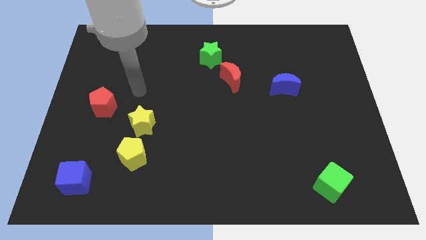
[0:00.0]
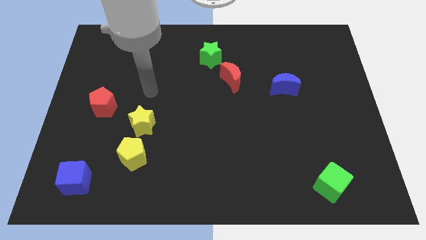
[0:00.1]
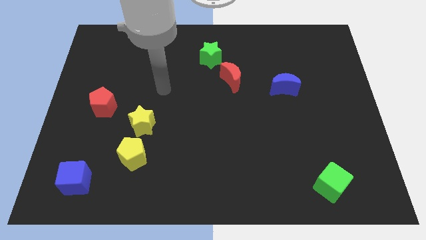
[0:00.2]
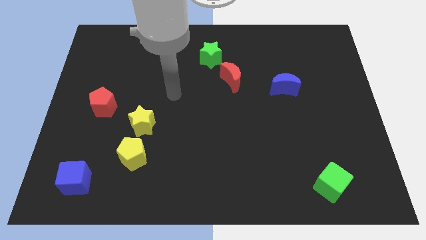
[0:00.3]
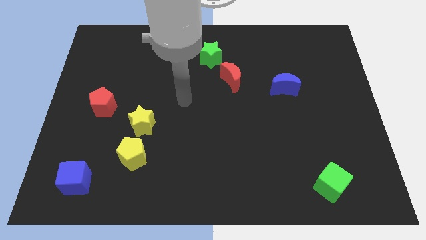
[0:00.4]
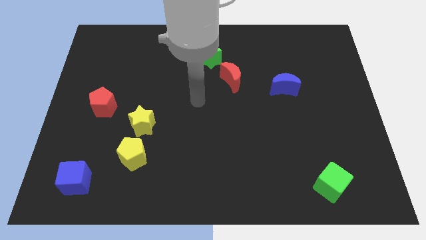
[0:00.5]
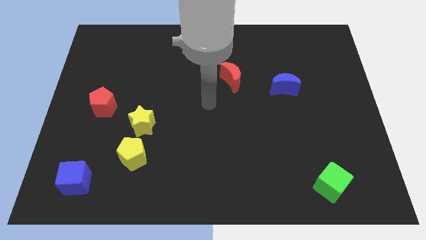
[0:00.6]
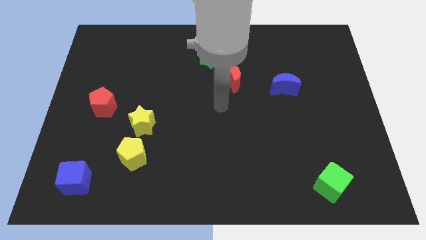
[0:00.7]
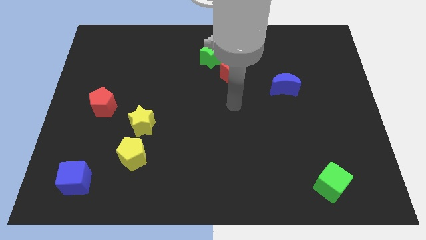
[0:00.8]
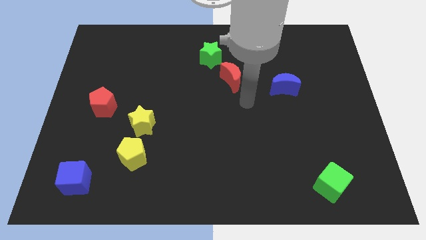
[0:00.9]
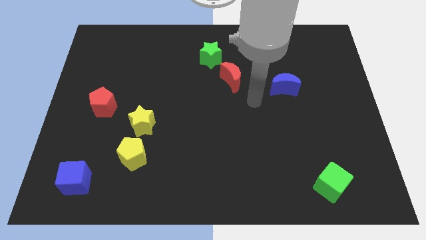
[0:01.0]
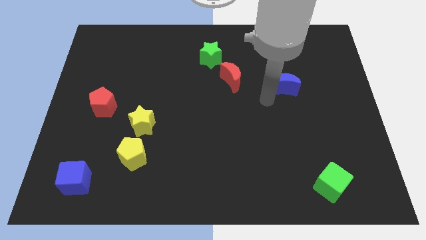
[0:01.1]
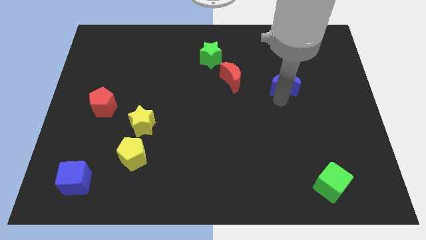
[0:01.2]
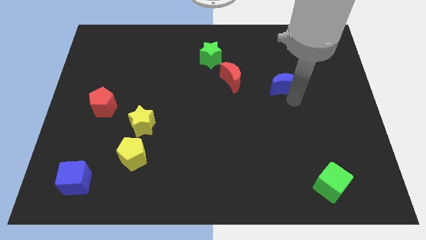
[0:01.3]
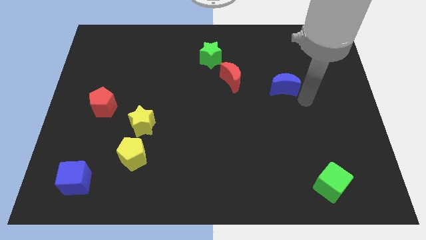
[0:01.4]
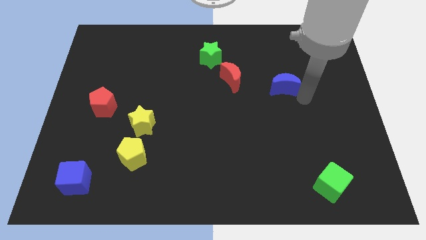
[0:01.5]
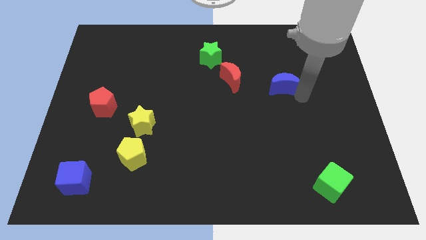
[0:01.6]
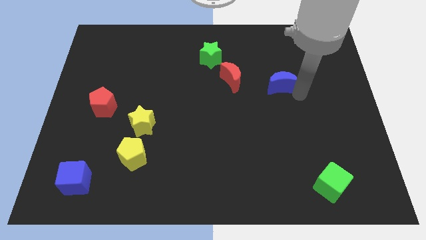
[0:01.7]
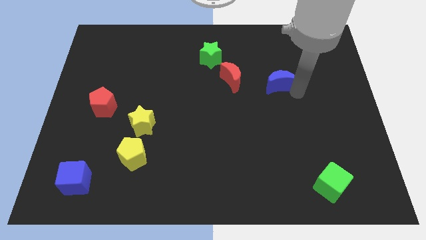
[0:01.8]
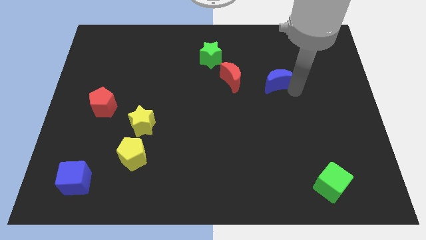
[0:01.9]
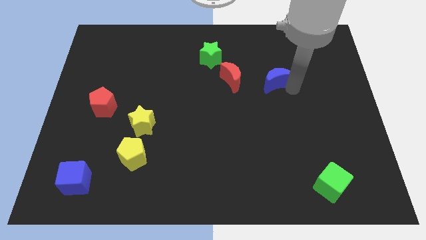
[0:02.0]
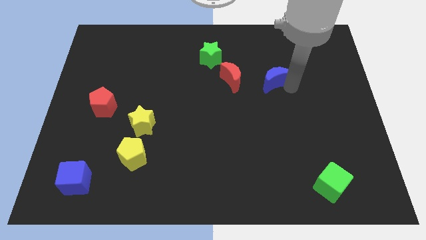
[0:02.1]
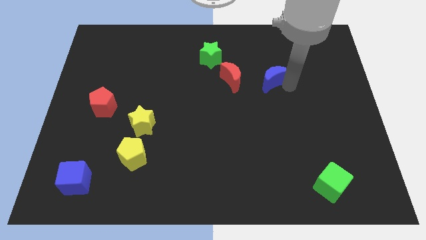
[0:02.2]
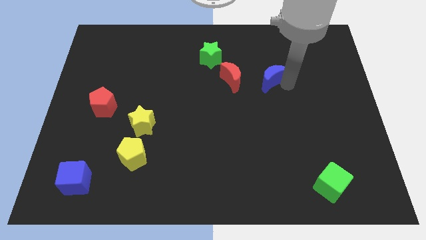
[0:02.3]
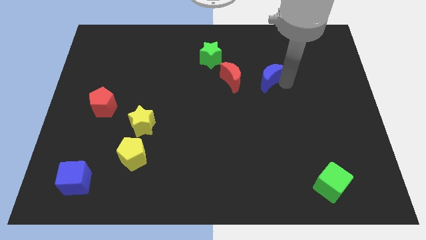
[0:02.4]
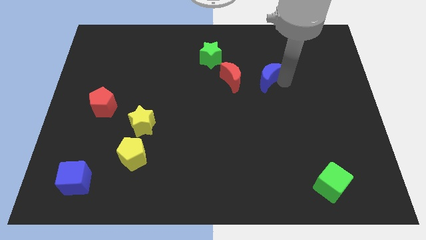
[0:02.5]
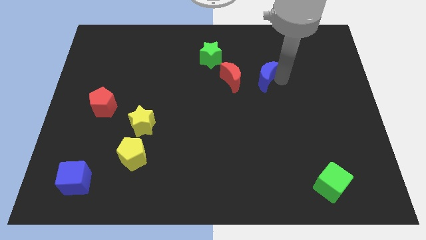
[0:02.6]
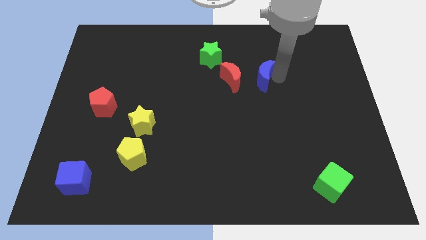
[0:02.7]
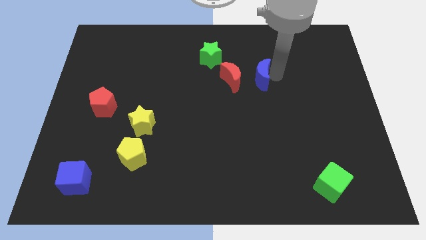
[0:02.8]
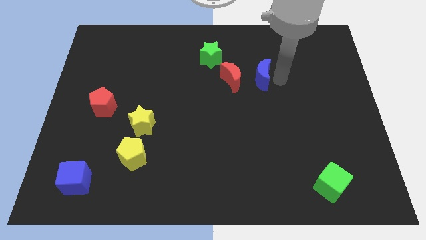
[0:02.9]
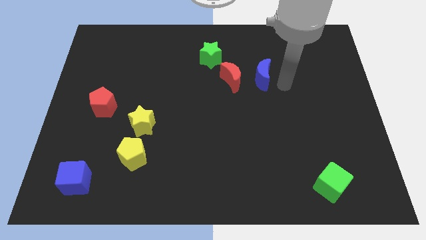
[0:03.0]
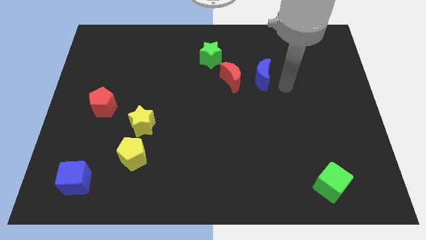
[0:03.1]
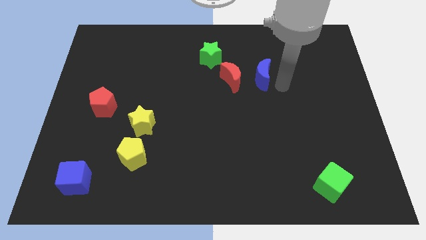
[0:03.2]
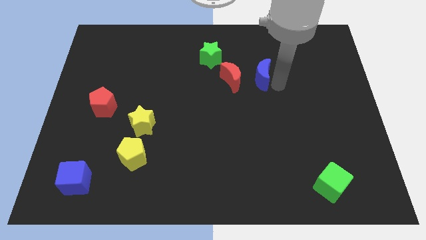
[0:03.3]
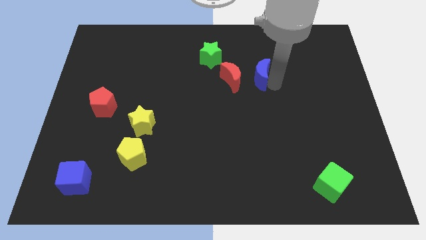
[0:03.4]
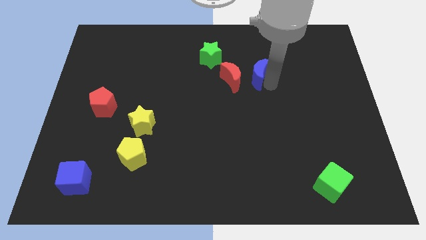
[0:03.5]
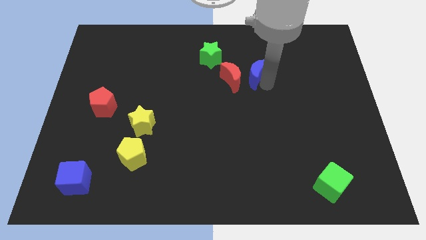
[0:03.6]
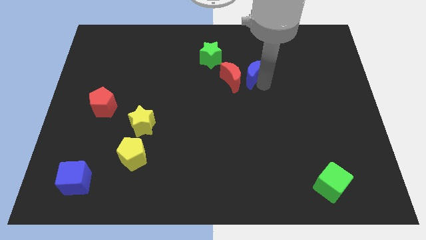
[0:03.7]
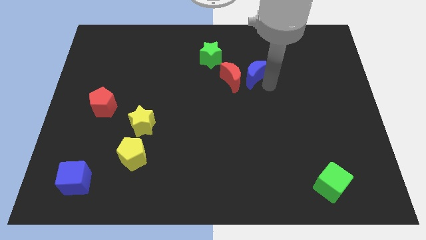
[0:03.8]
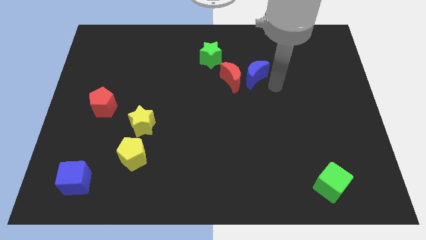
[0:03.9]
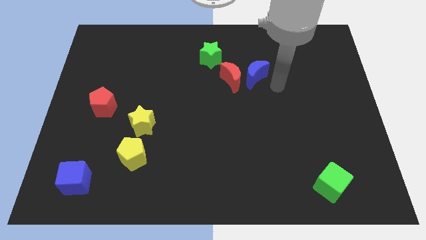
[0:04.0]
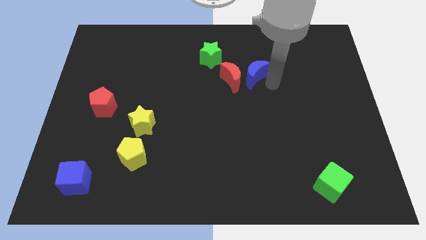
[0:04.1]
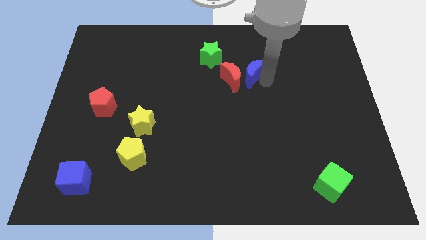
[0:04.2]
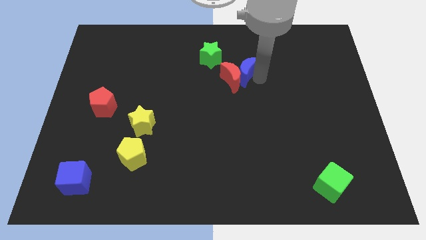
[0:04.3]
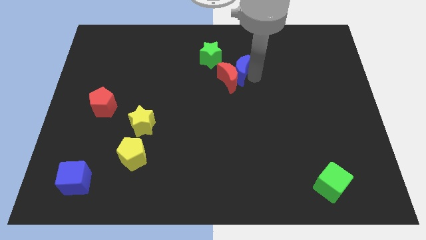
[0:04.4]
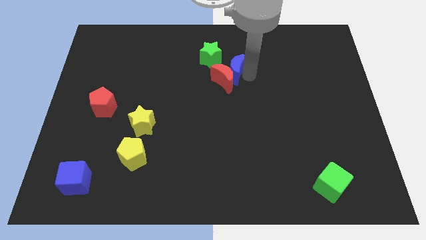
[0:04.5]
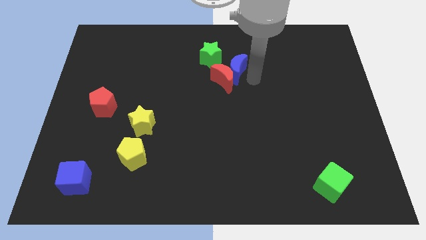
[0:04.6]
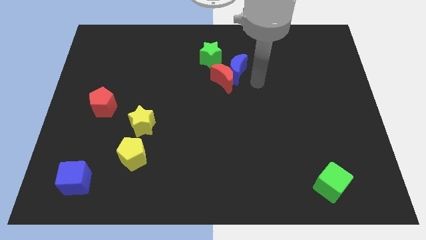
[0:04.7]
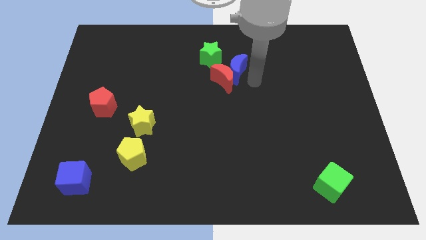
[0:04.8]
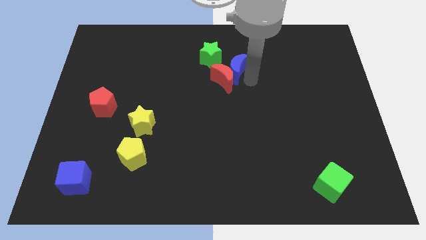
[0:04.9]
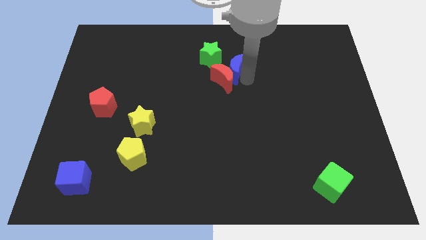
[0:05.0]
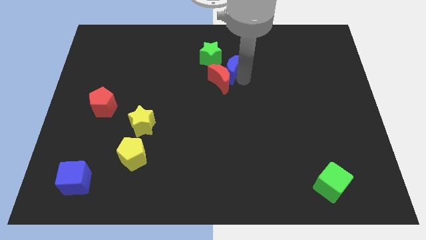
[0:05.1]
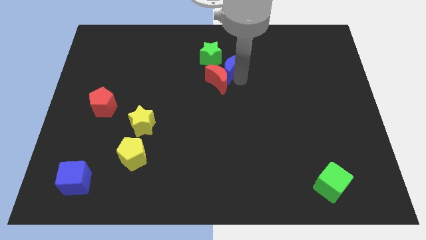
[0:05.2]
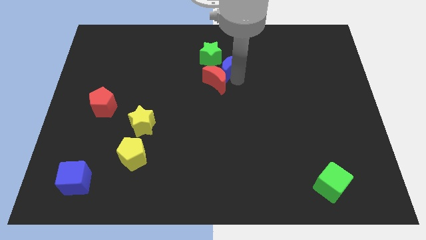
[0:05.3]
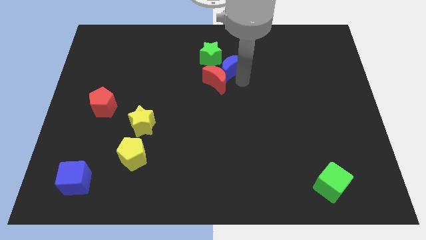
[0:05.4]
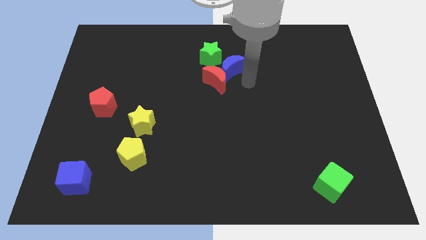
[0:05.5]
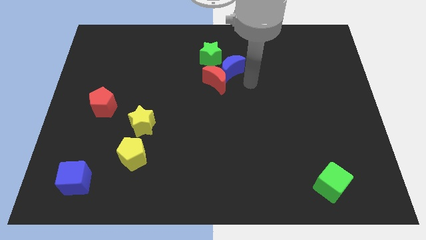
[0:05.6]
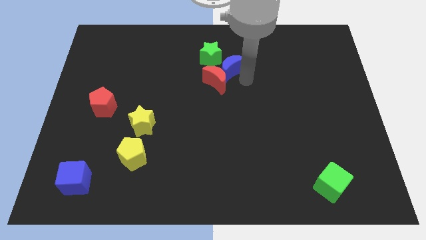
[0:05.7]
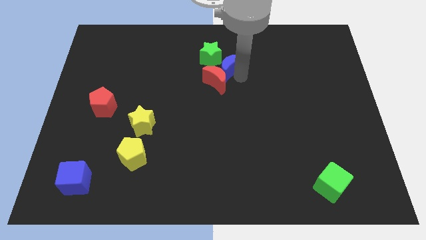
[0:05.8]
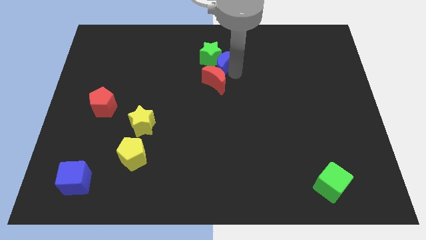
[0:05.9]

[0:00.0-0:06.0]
push the blue moon to the green star

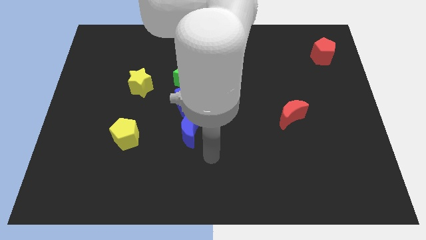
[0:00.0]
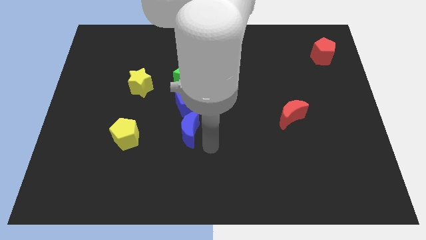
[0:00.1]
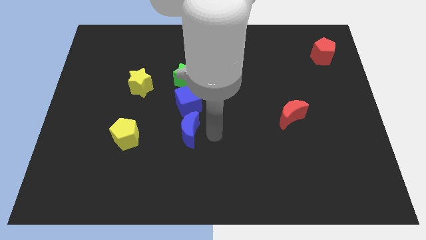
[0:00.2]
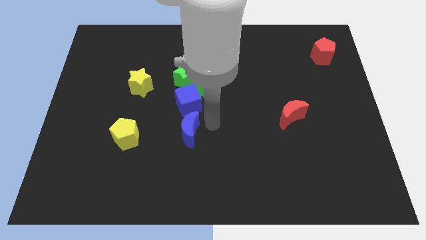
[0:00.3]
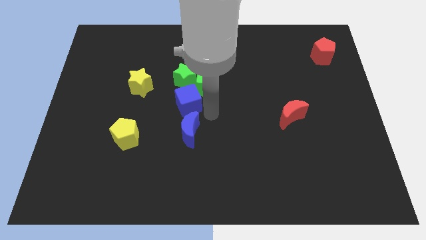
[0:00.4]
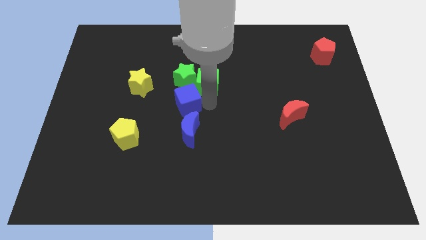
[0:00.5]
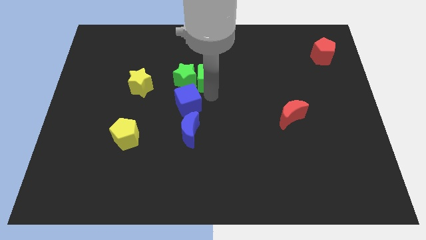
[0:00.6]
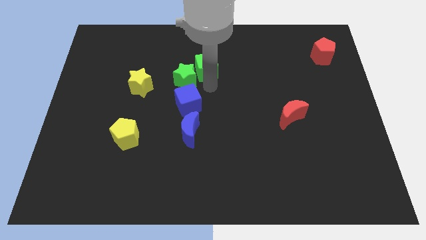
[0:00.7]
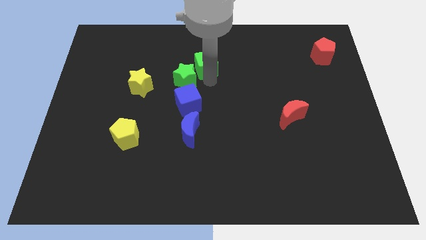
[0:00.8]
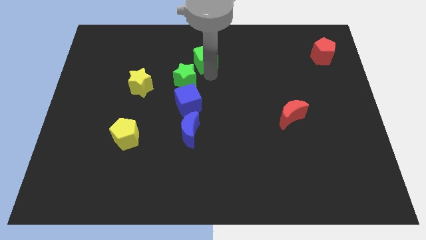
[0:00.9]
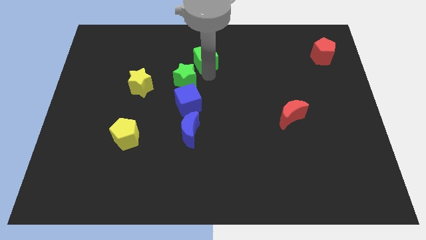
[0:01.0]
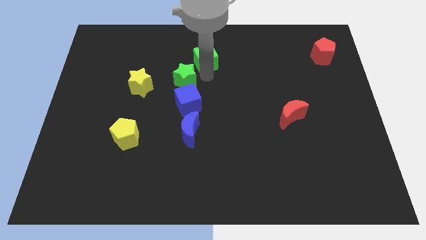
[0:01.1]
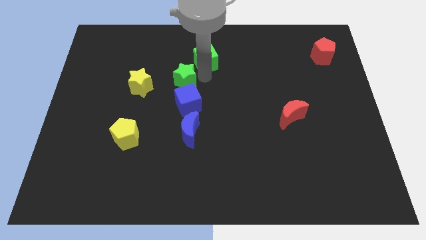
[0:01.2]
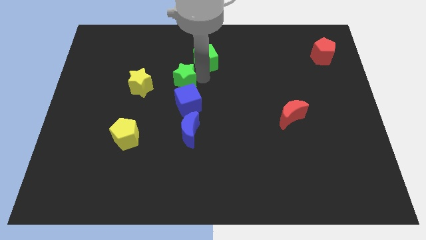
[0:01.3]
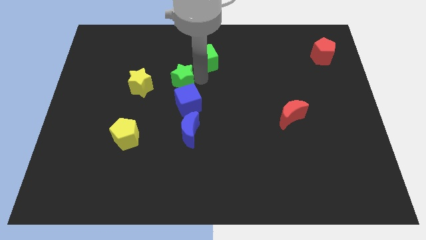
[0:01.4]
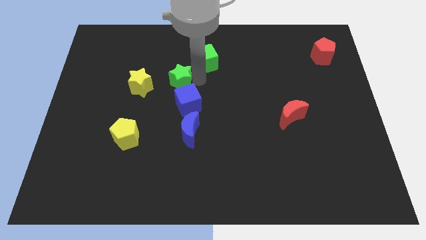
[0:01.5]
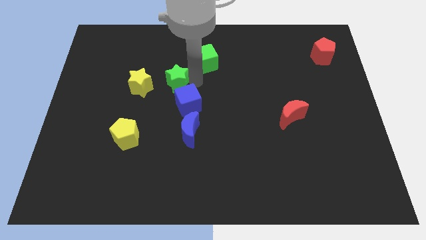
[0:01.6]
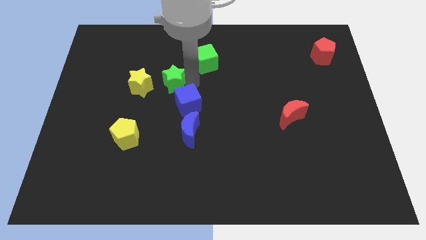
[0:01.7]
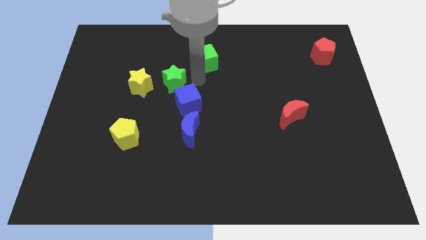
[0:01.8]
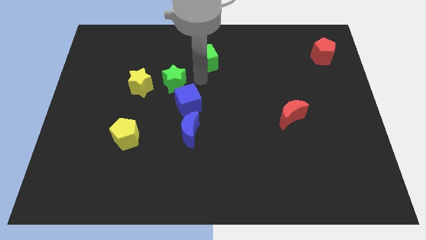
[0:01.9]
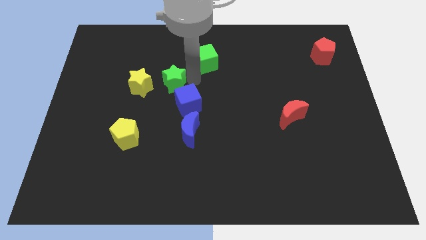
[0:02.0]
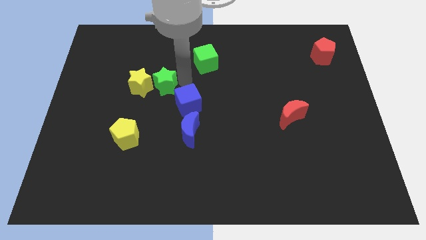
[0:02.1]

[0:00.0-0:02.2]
move the green star to the yellow star
